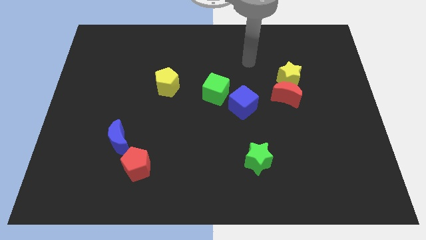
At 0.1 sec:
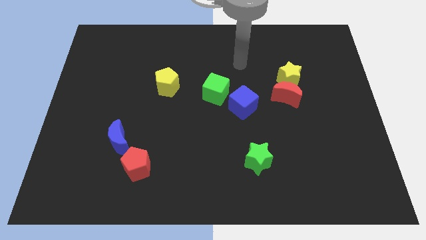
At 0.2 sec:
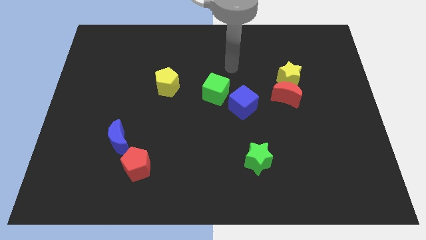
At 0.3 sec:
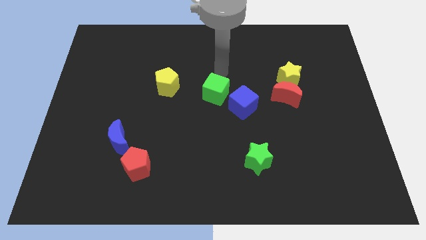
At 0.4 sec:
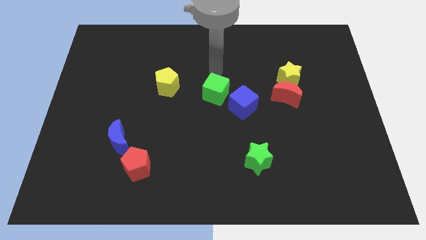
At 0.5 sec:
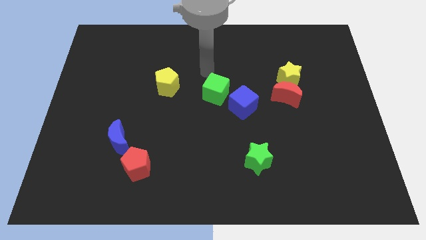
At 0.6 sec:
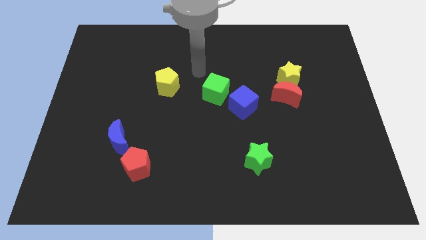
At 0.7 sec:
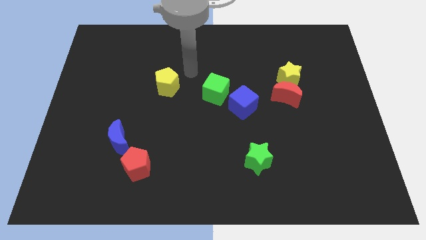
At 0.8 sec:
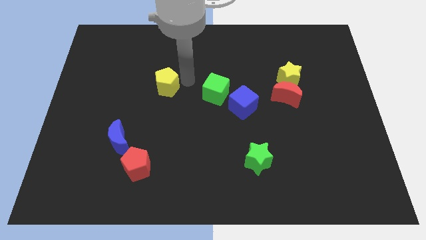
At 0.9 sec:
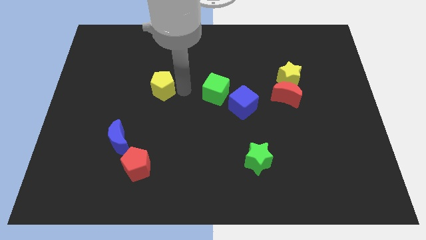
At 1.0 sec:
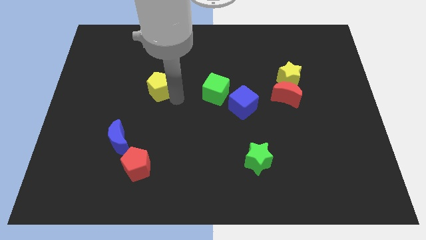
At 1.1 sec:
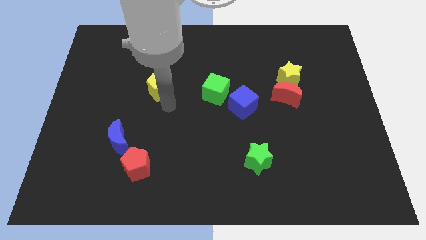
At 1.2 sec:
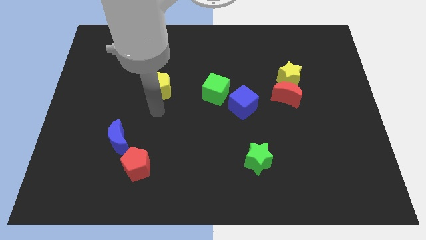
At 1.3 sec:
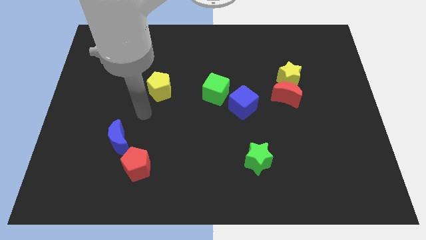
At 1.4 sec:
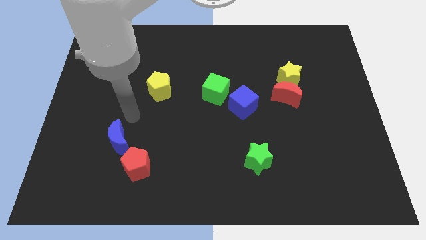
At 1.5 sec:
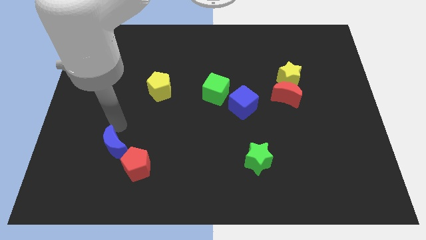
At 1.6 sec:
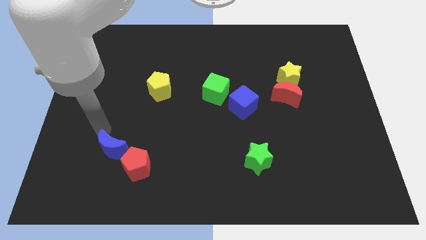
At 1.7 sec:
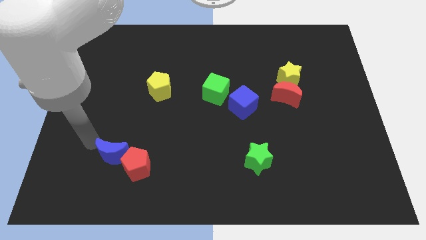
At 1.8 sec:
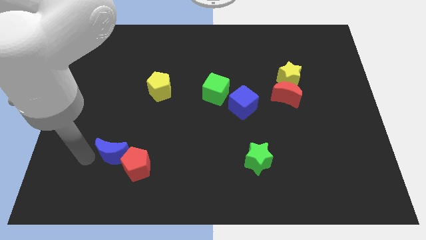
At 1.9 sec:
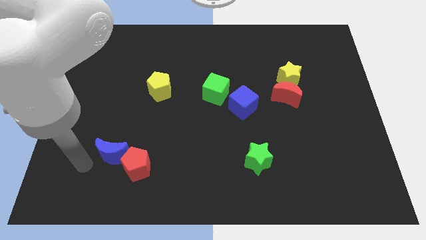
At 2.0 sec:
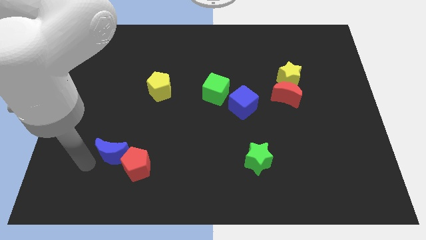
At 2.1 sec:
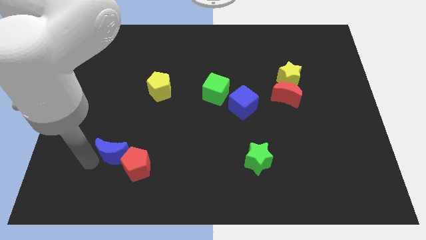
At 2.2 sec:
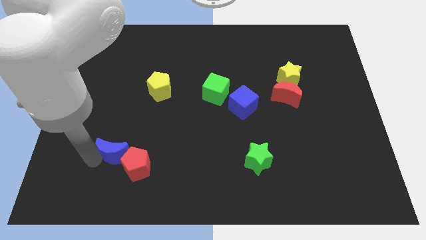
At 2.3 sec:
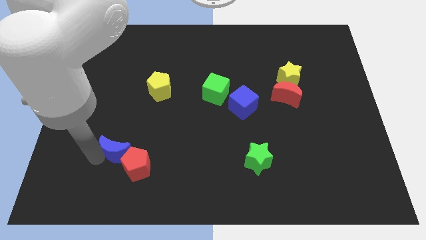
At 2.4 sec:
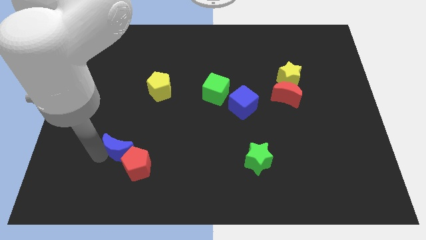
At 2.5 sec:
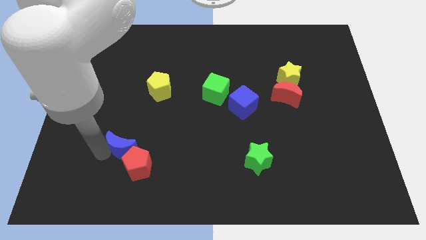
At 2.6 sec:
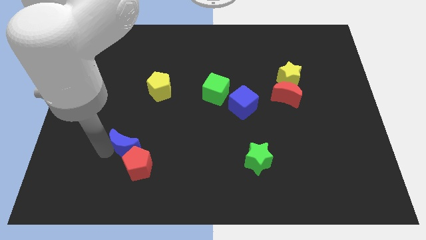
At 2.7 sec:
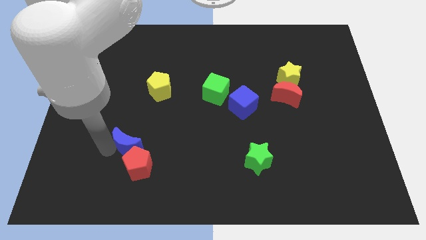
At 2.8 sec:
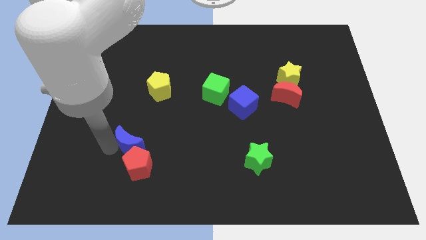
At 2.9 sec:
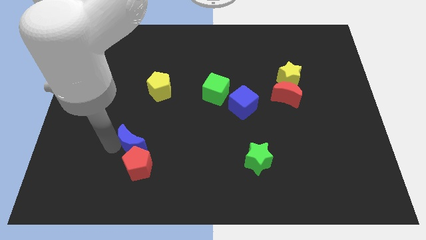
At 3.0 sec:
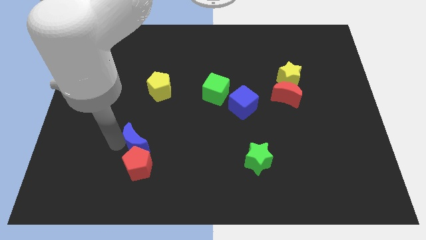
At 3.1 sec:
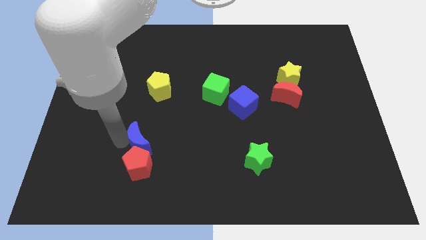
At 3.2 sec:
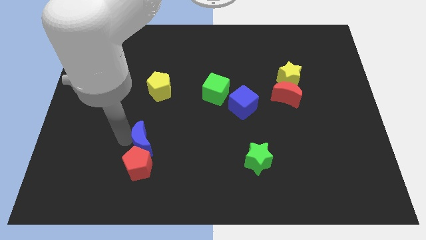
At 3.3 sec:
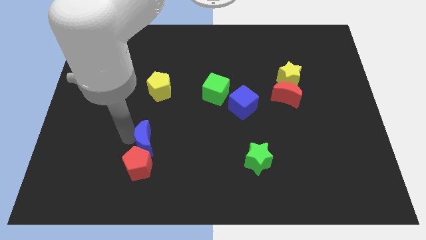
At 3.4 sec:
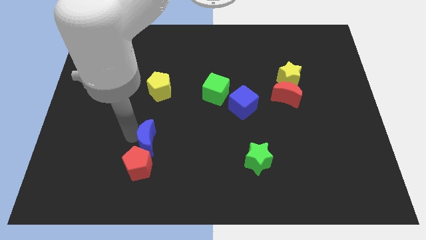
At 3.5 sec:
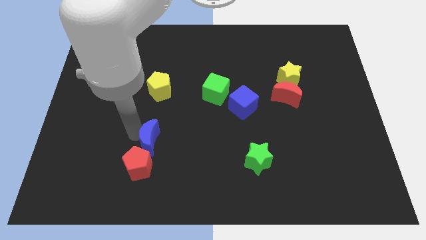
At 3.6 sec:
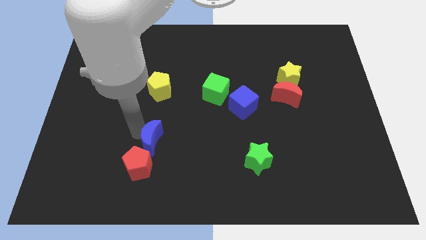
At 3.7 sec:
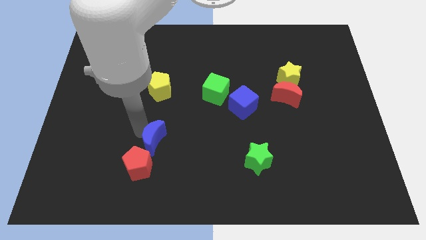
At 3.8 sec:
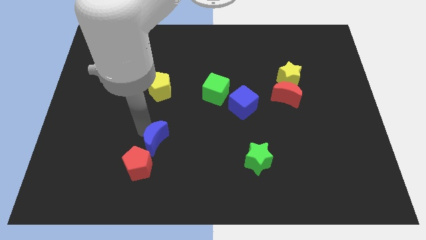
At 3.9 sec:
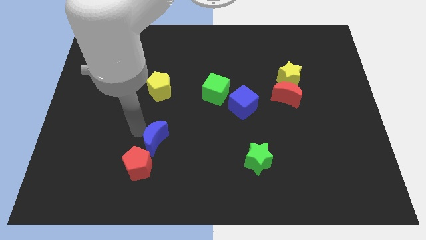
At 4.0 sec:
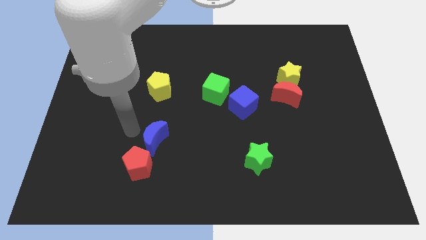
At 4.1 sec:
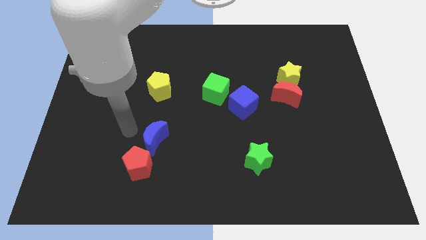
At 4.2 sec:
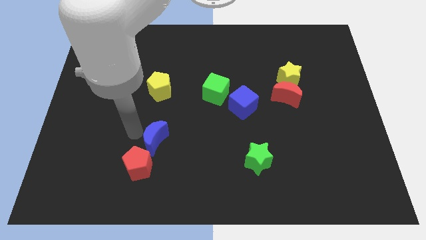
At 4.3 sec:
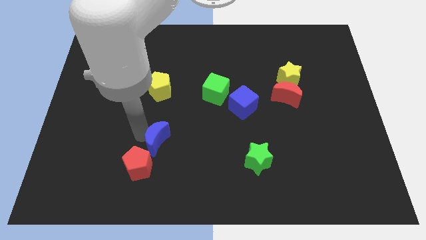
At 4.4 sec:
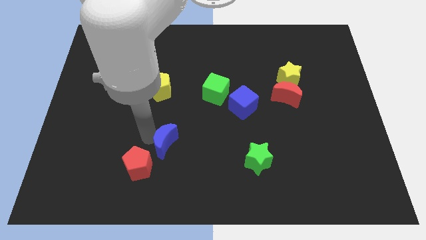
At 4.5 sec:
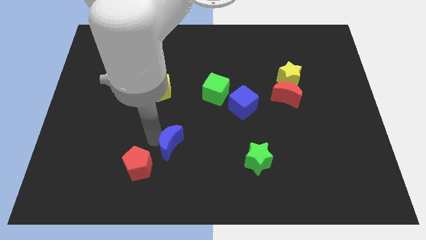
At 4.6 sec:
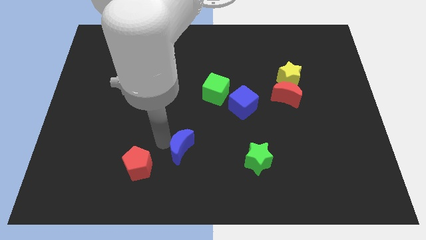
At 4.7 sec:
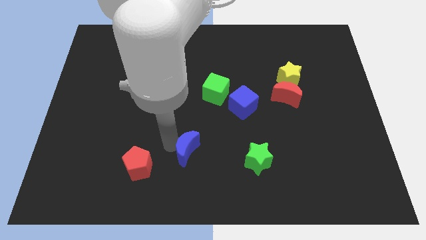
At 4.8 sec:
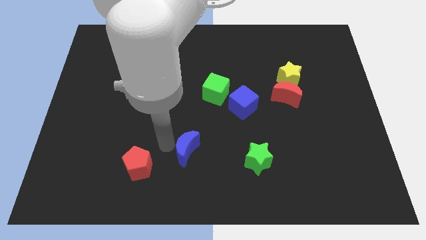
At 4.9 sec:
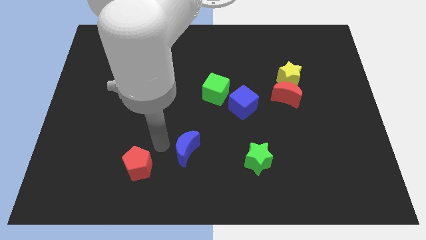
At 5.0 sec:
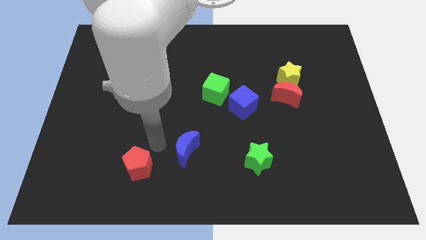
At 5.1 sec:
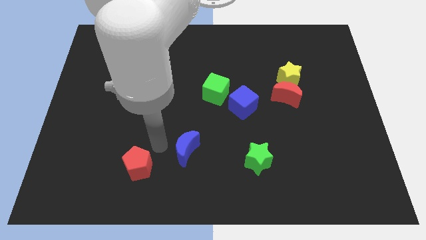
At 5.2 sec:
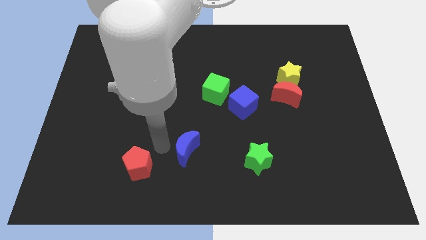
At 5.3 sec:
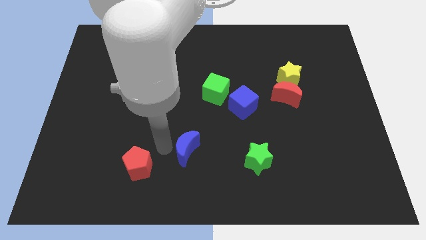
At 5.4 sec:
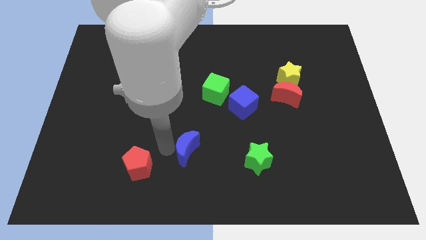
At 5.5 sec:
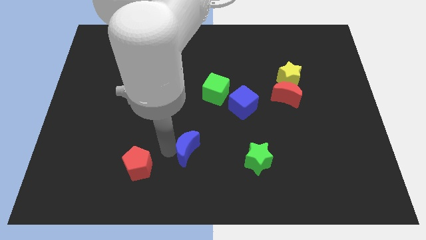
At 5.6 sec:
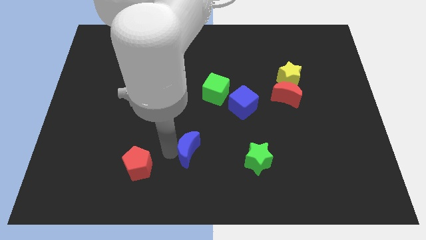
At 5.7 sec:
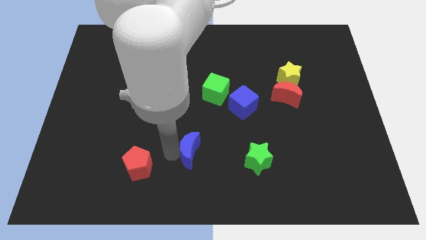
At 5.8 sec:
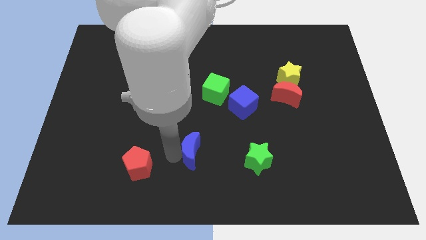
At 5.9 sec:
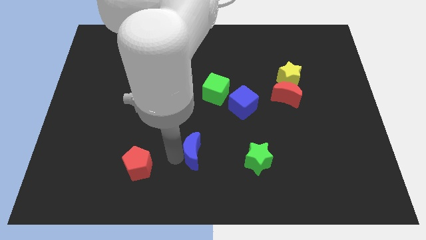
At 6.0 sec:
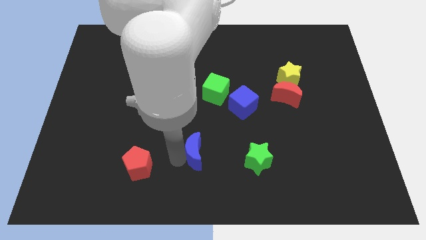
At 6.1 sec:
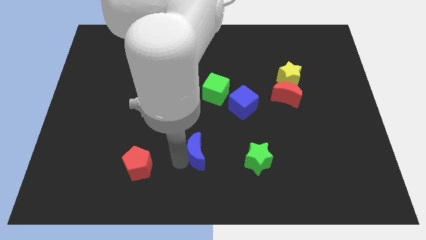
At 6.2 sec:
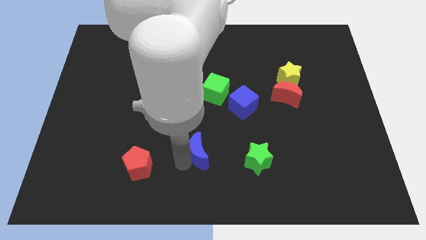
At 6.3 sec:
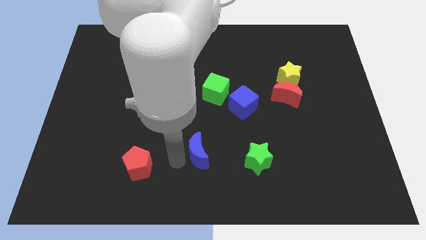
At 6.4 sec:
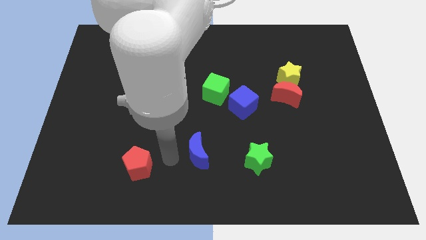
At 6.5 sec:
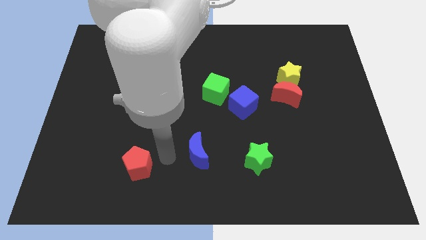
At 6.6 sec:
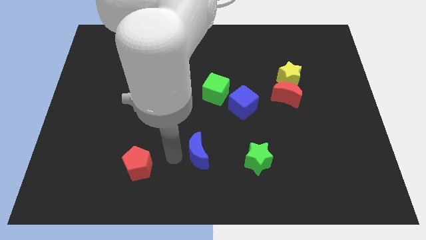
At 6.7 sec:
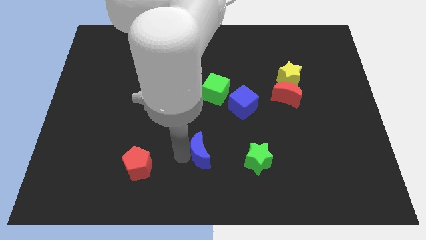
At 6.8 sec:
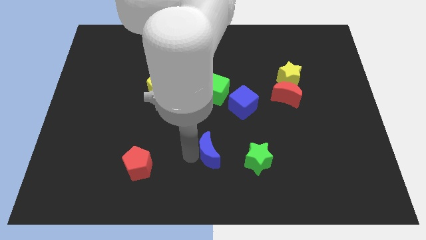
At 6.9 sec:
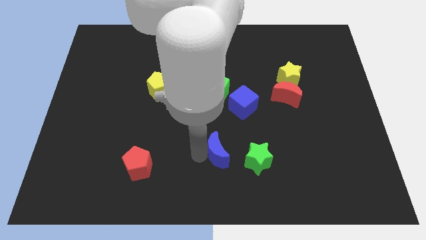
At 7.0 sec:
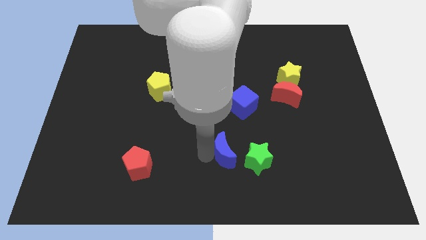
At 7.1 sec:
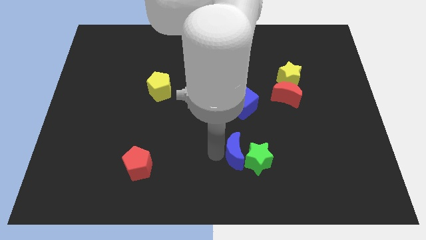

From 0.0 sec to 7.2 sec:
slide the blue moon to the green star
